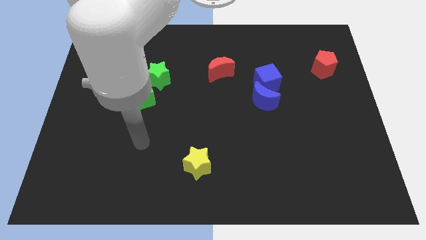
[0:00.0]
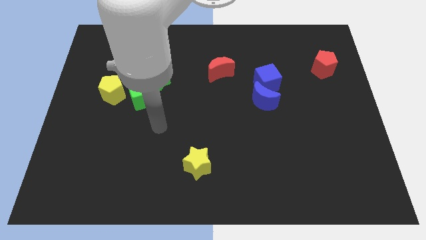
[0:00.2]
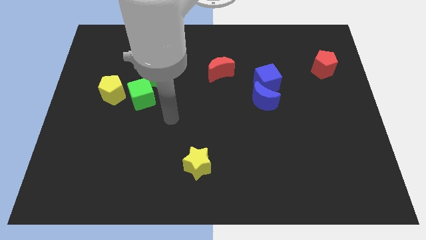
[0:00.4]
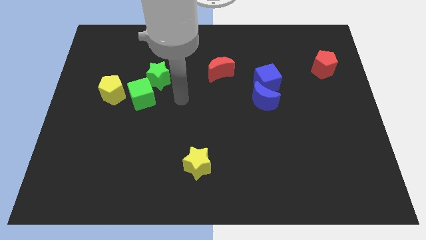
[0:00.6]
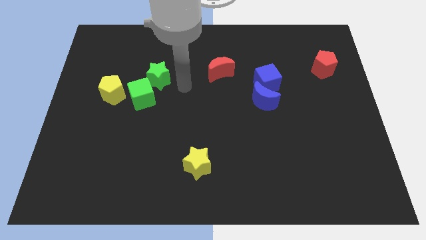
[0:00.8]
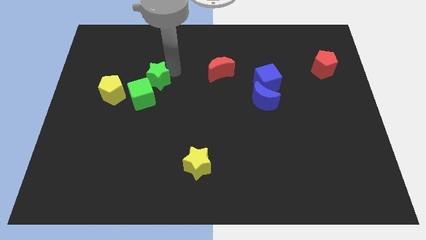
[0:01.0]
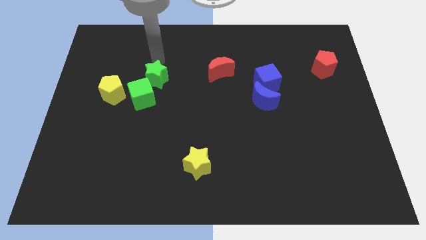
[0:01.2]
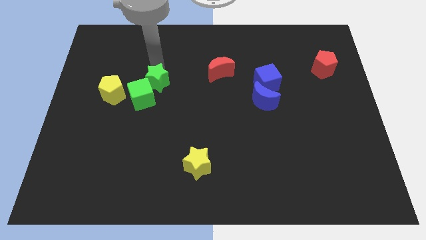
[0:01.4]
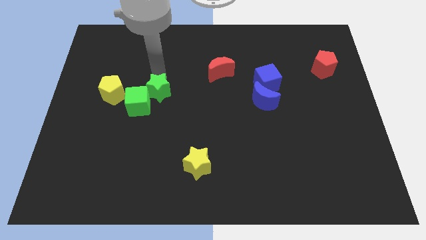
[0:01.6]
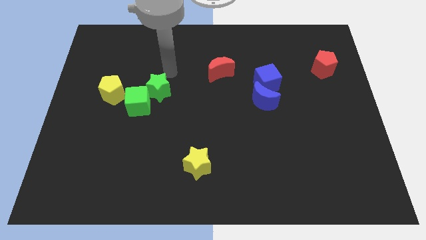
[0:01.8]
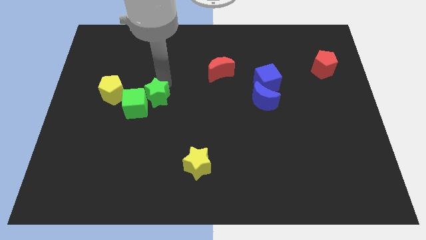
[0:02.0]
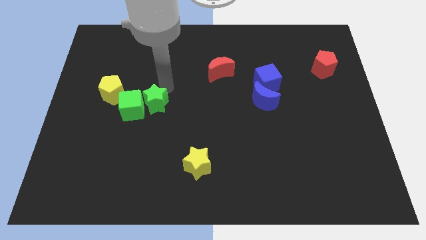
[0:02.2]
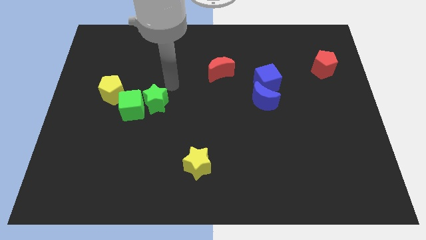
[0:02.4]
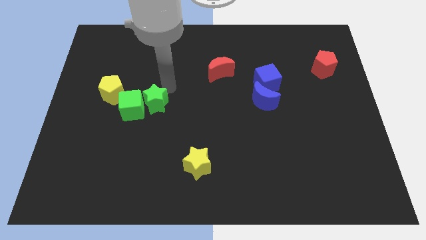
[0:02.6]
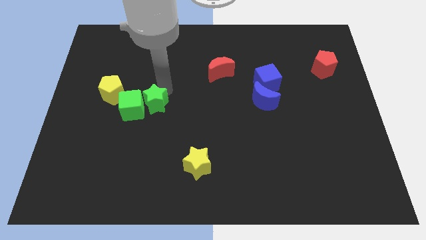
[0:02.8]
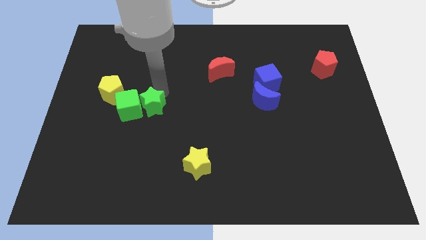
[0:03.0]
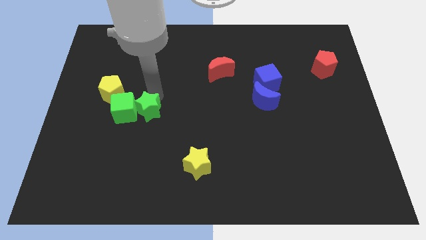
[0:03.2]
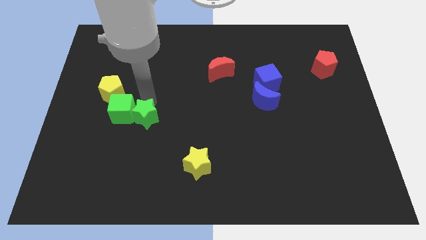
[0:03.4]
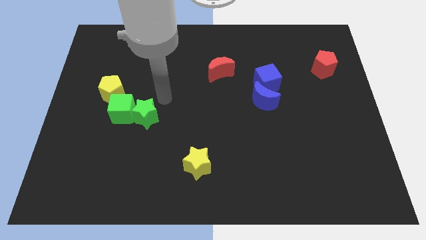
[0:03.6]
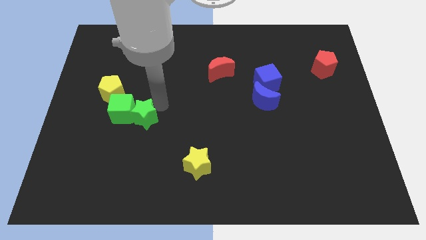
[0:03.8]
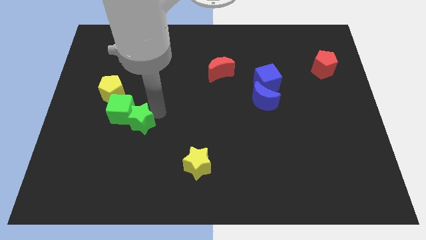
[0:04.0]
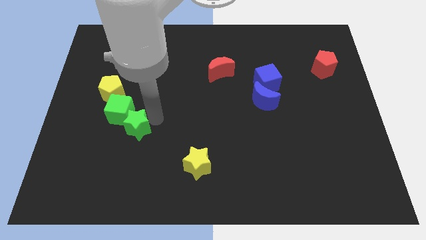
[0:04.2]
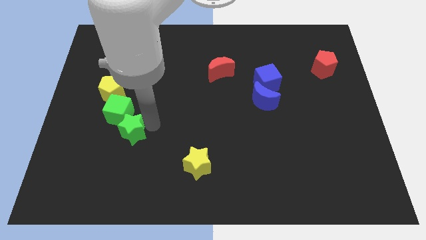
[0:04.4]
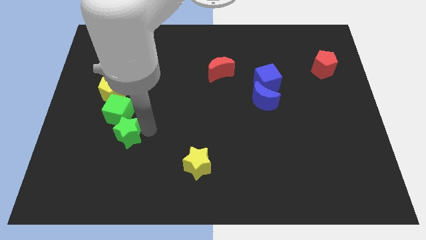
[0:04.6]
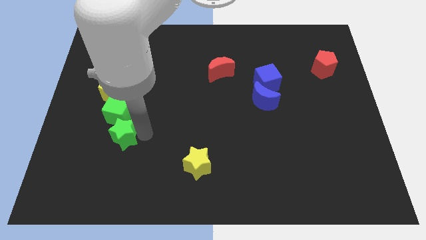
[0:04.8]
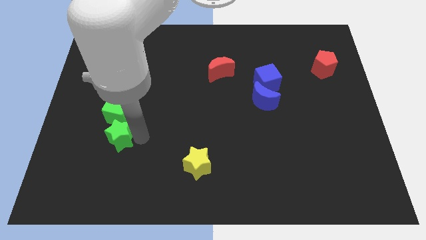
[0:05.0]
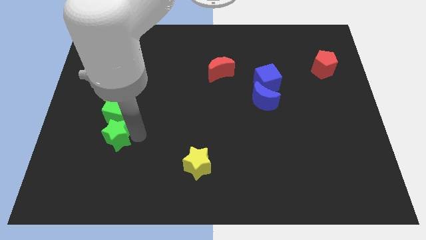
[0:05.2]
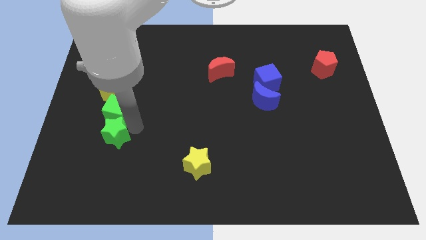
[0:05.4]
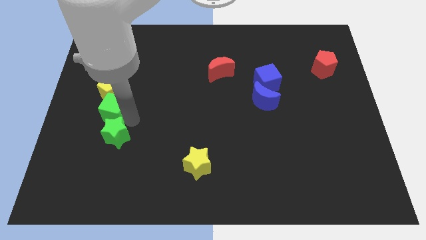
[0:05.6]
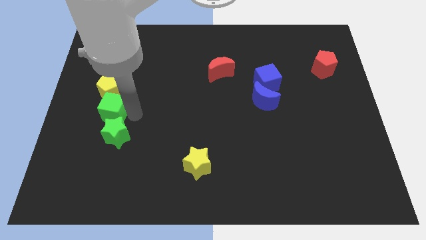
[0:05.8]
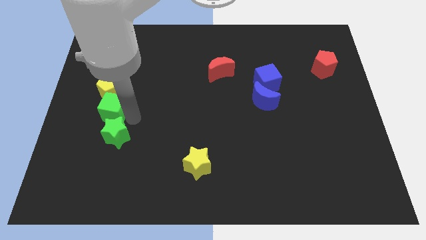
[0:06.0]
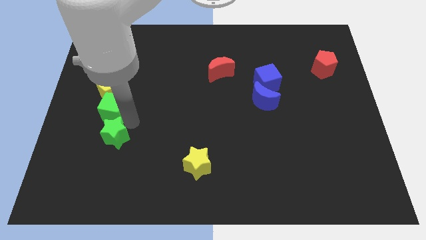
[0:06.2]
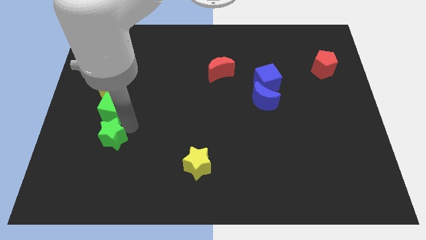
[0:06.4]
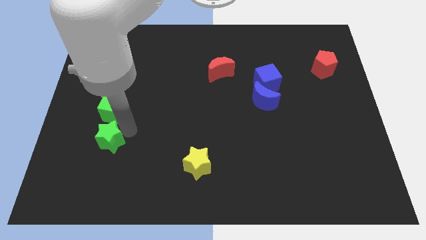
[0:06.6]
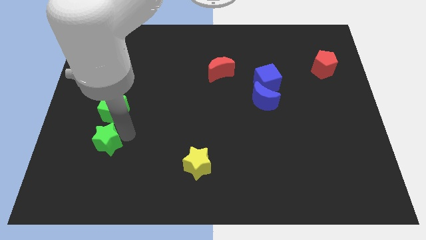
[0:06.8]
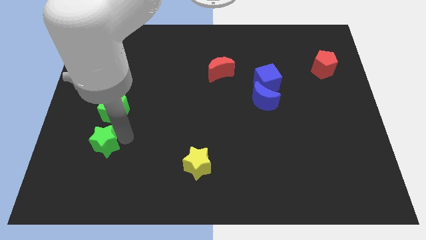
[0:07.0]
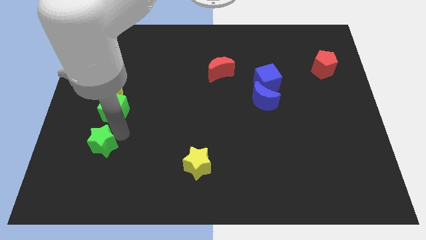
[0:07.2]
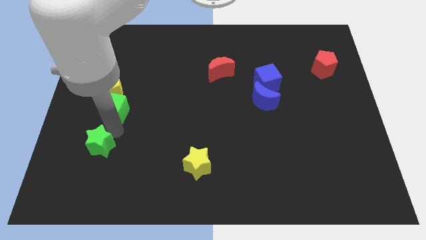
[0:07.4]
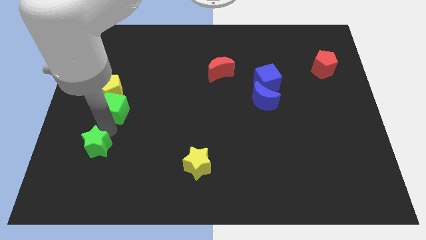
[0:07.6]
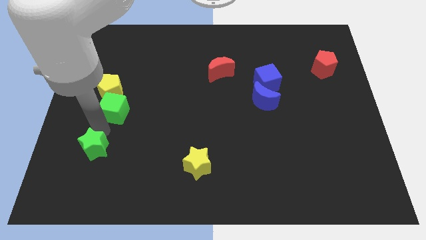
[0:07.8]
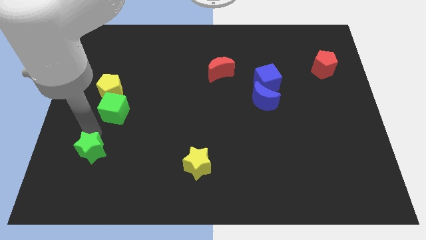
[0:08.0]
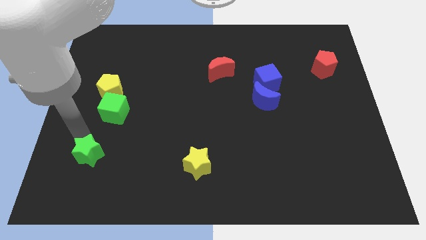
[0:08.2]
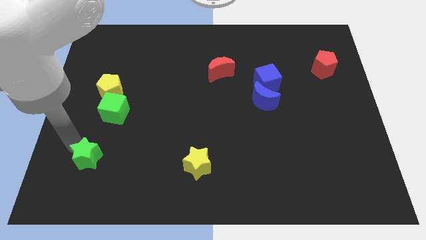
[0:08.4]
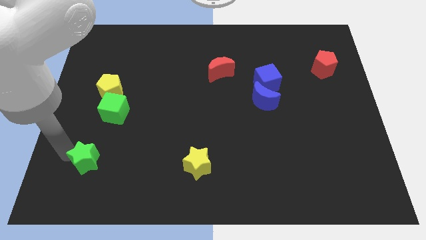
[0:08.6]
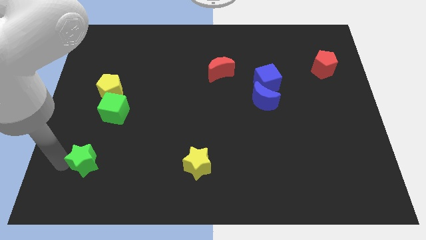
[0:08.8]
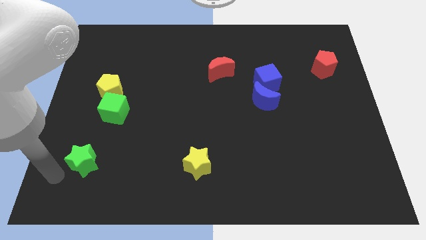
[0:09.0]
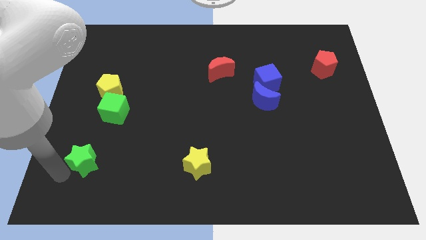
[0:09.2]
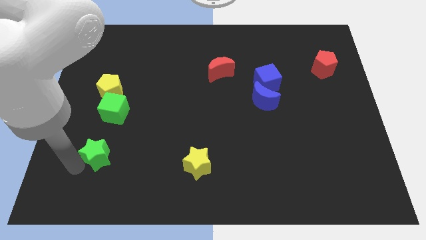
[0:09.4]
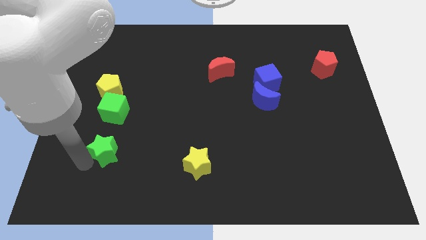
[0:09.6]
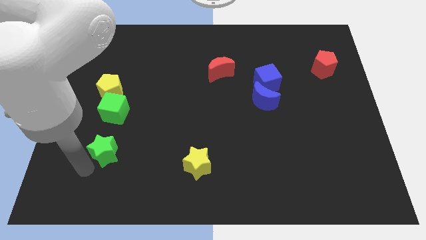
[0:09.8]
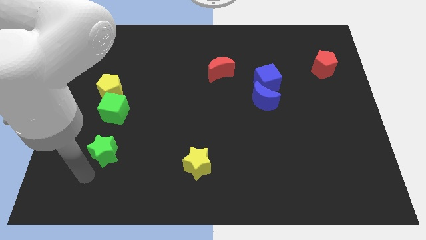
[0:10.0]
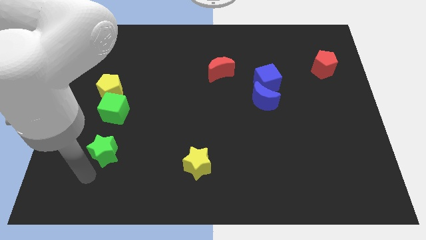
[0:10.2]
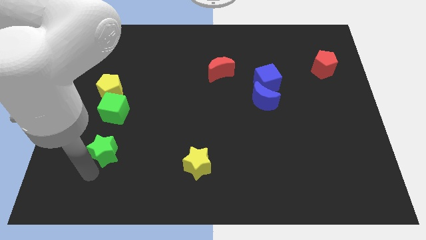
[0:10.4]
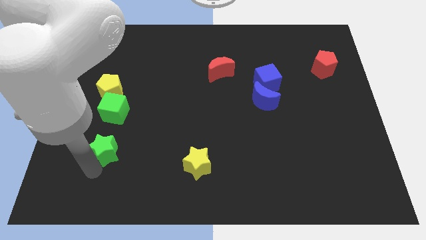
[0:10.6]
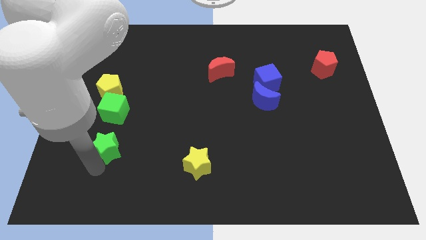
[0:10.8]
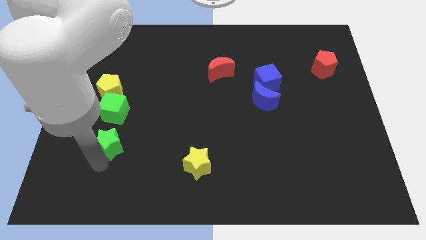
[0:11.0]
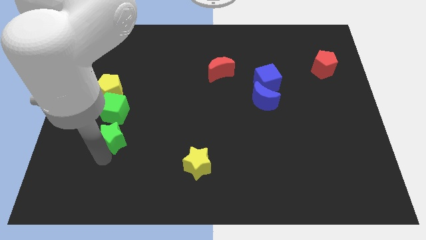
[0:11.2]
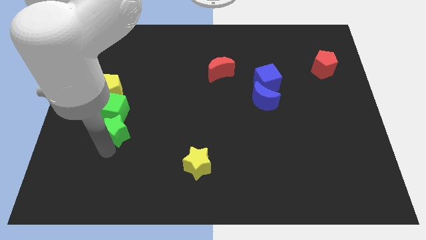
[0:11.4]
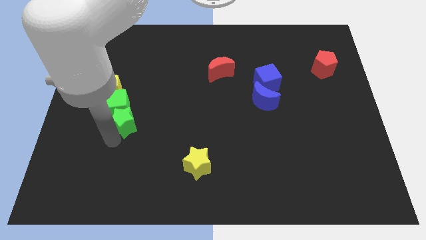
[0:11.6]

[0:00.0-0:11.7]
slide the green star to the bottom side of the green cube

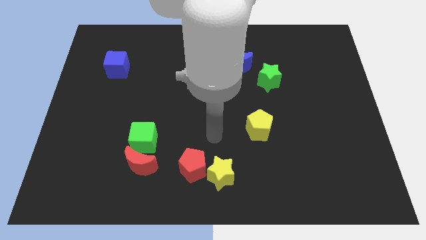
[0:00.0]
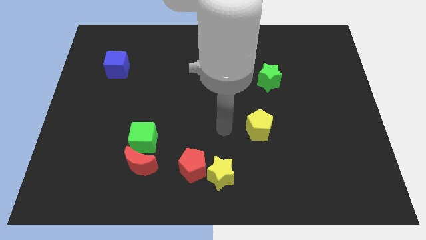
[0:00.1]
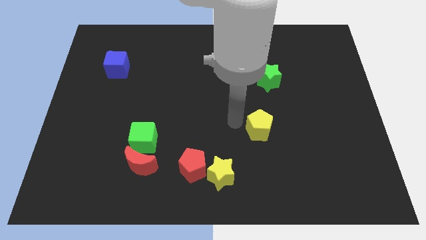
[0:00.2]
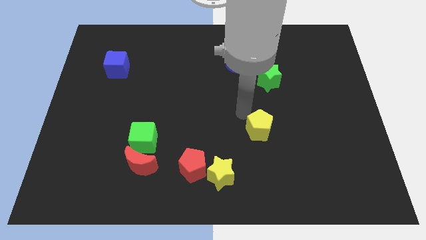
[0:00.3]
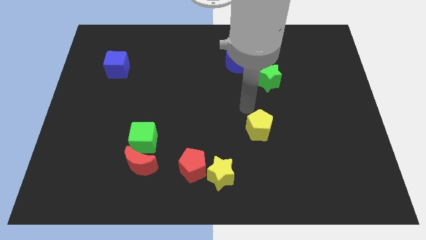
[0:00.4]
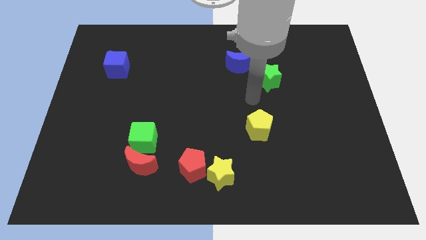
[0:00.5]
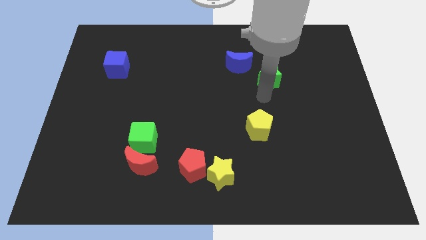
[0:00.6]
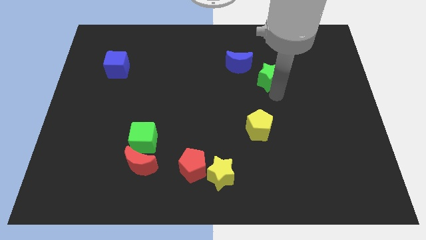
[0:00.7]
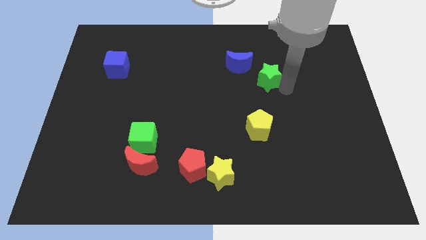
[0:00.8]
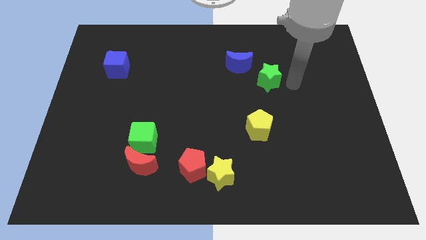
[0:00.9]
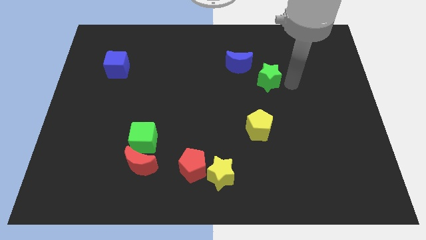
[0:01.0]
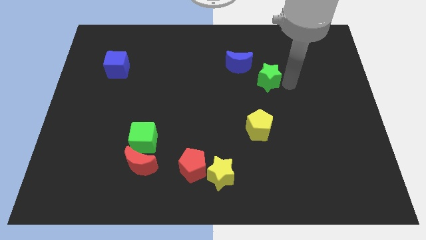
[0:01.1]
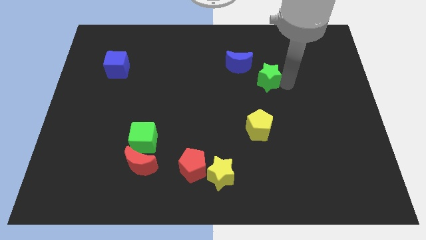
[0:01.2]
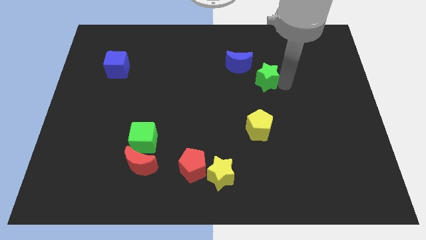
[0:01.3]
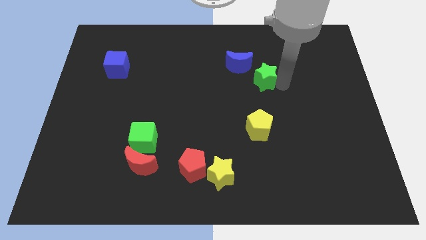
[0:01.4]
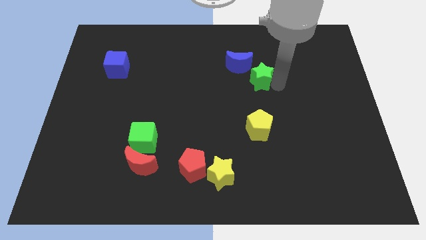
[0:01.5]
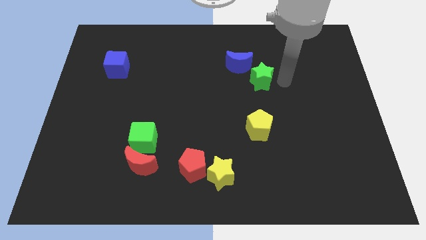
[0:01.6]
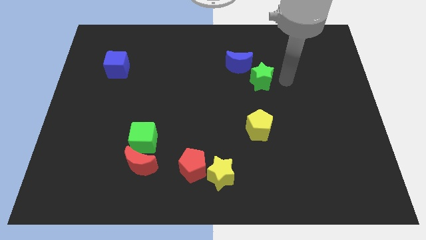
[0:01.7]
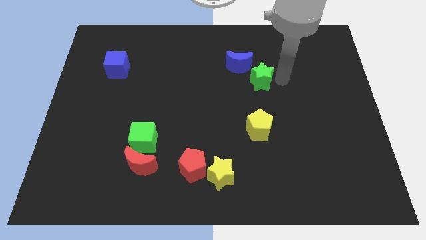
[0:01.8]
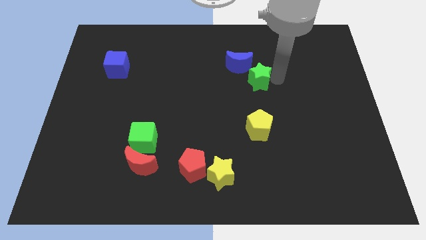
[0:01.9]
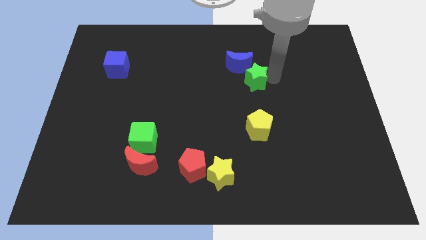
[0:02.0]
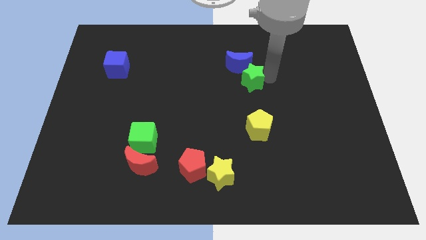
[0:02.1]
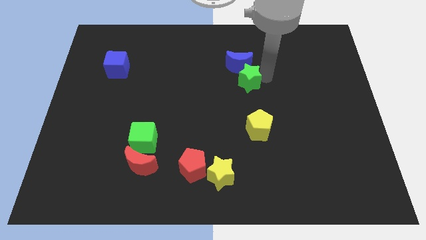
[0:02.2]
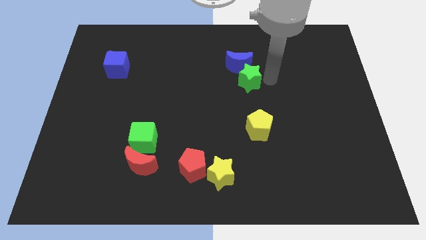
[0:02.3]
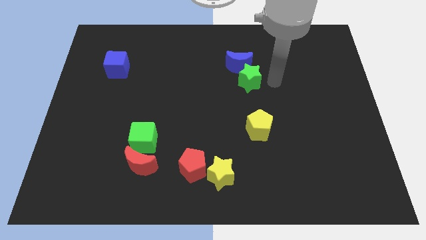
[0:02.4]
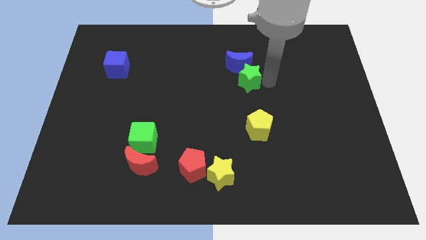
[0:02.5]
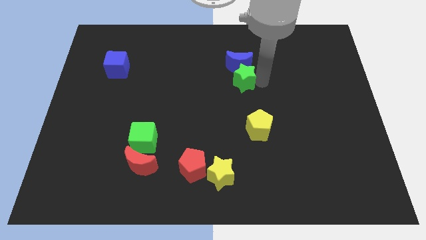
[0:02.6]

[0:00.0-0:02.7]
put the green star diagonally down and to the left of the blue moon
